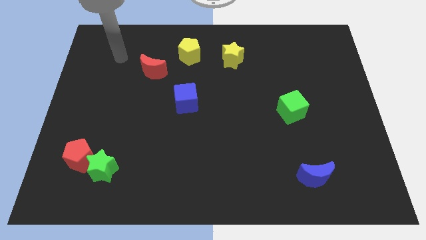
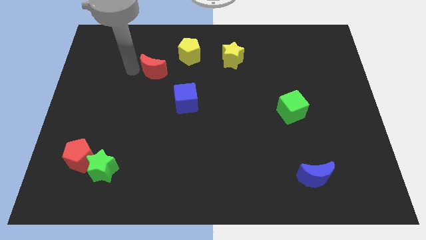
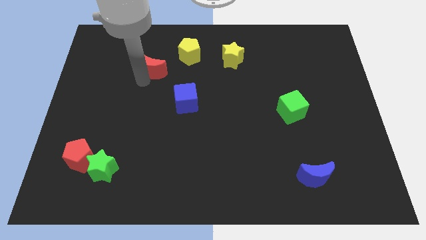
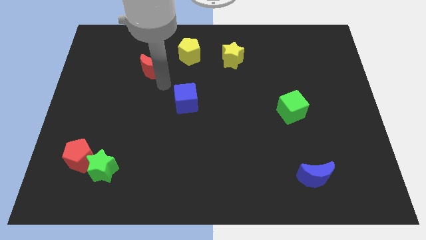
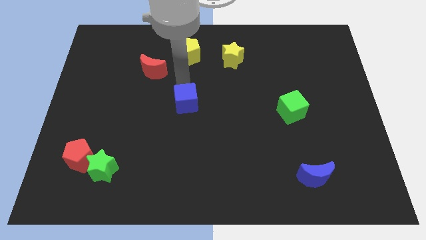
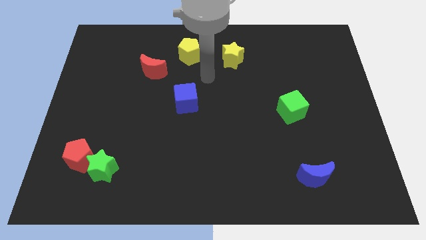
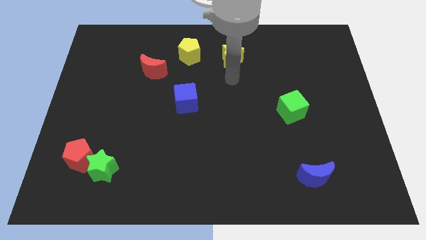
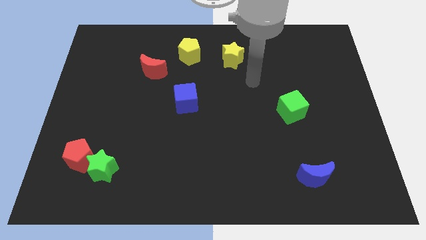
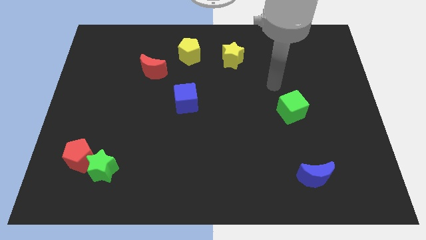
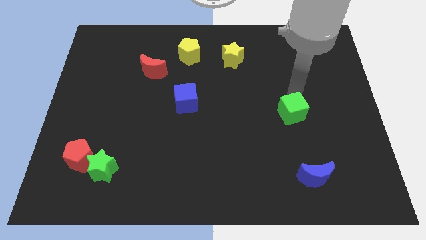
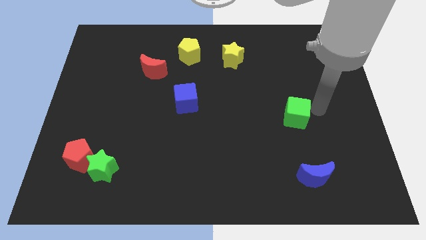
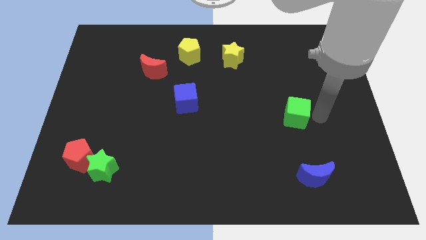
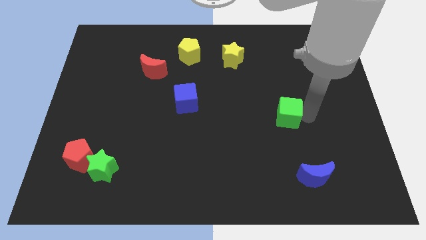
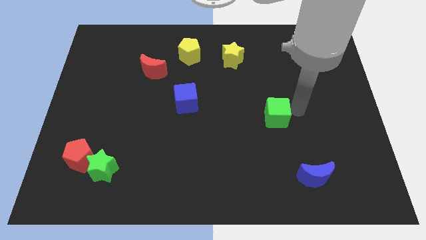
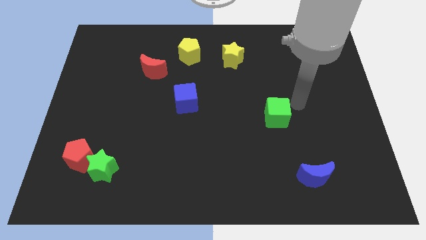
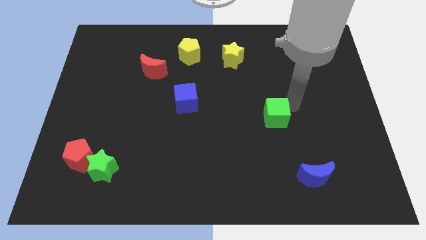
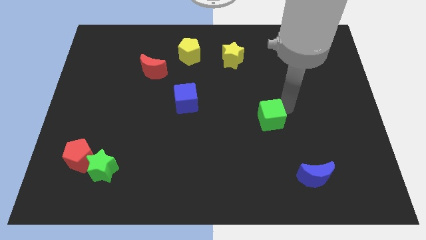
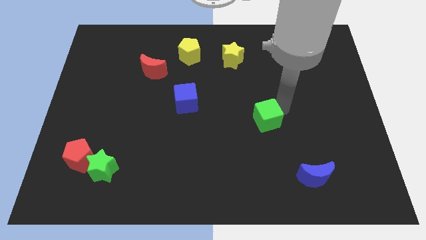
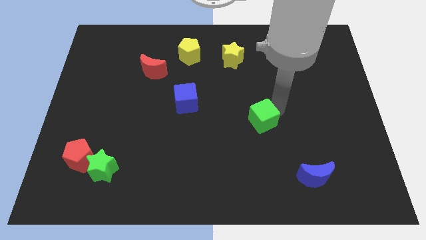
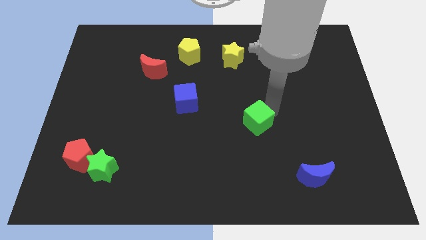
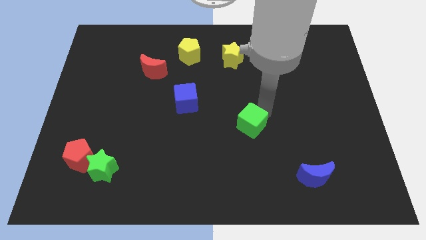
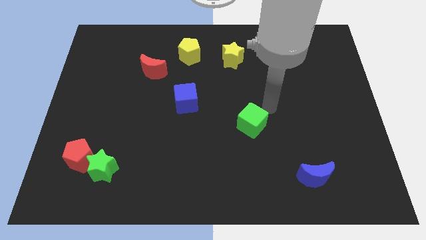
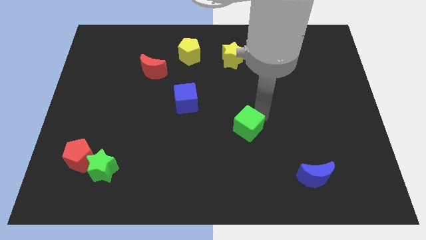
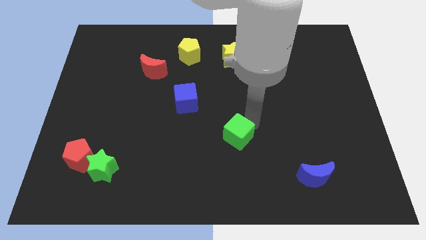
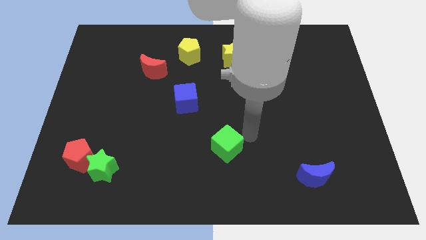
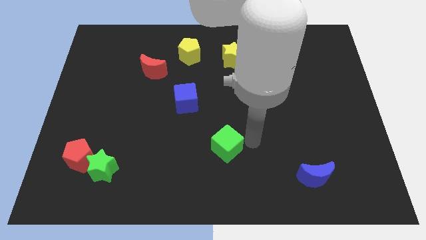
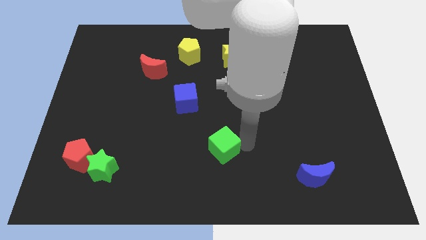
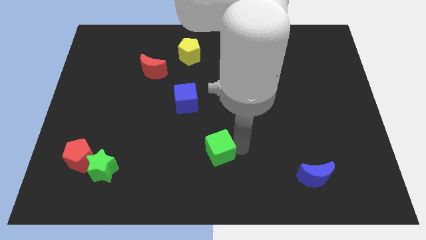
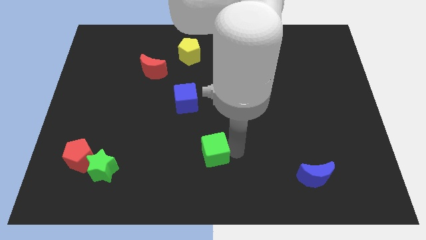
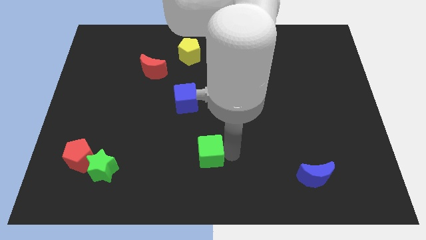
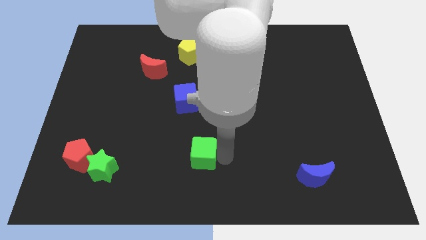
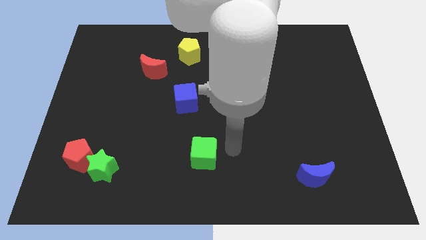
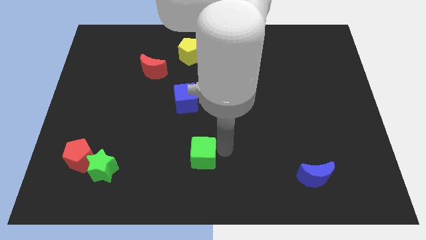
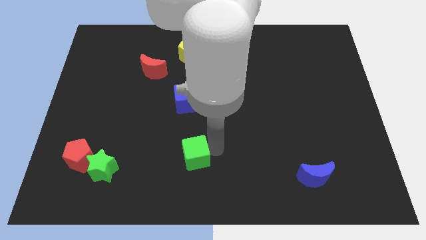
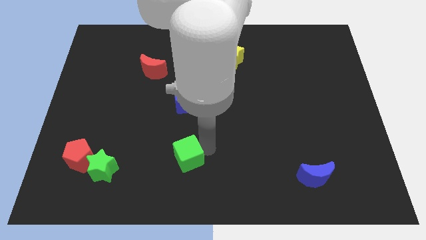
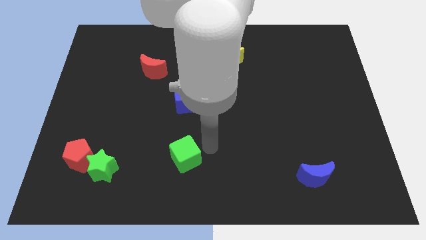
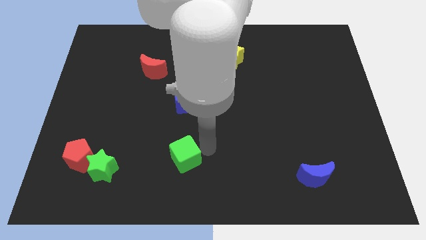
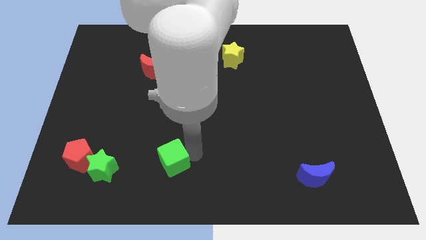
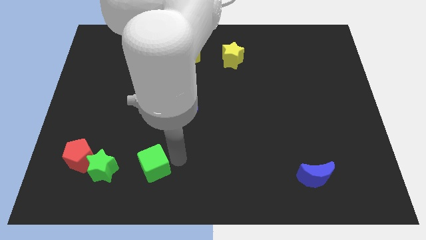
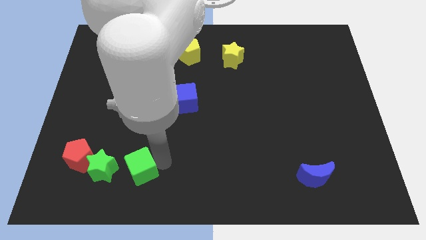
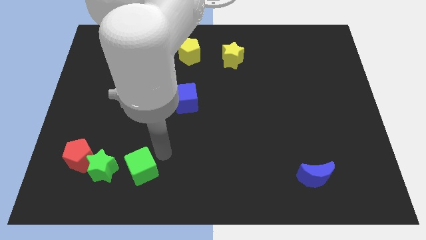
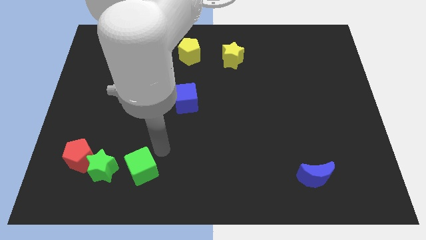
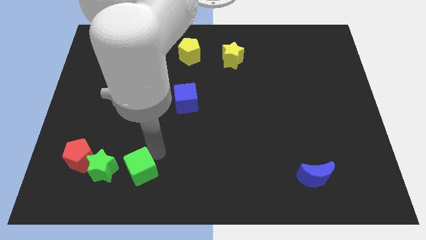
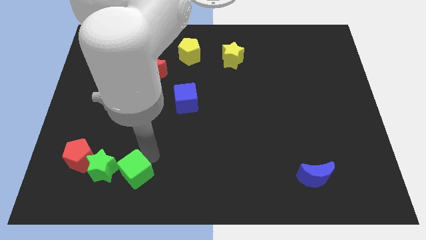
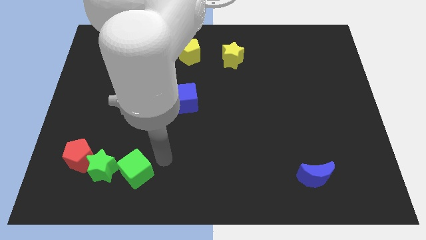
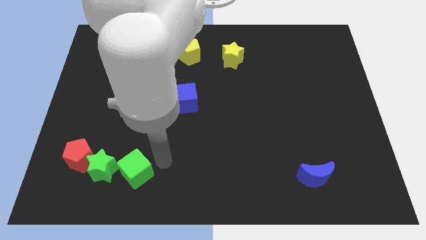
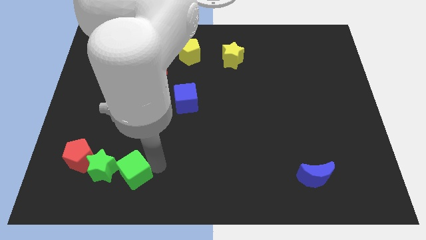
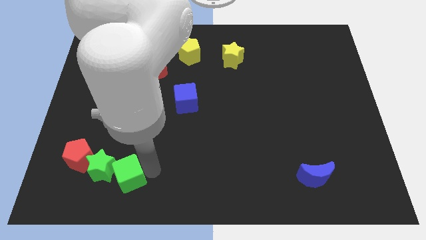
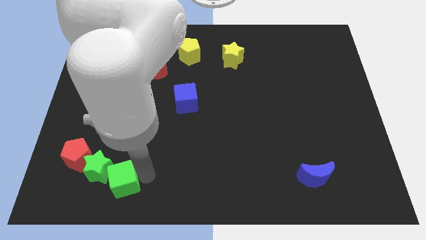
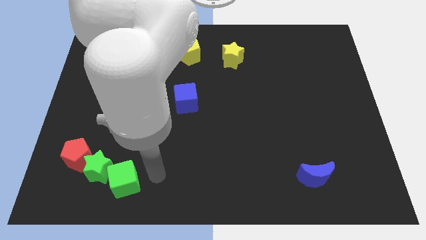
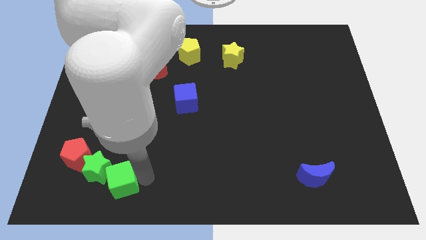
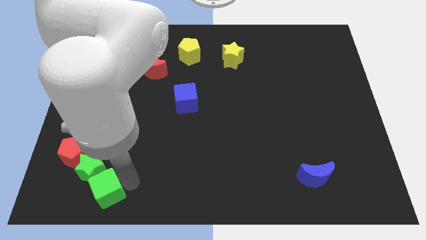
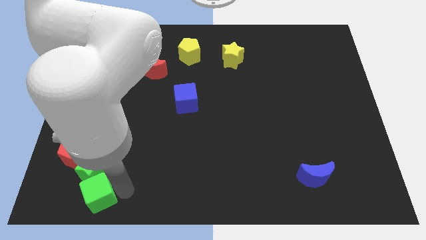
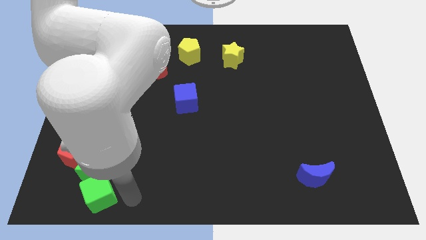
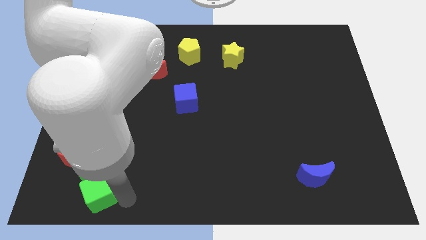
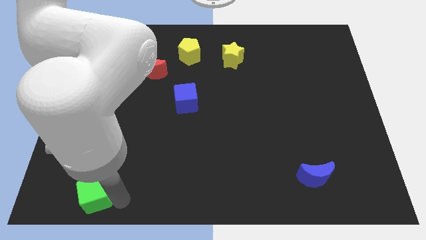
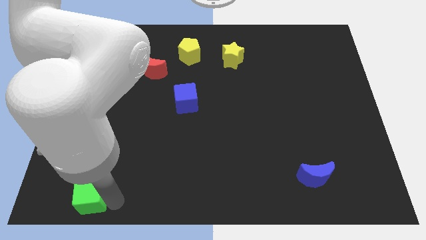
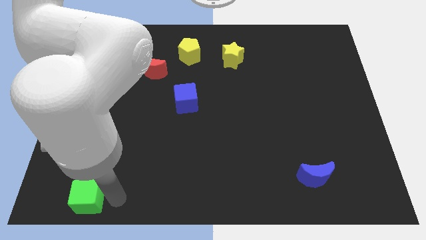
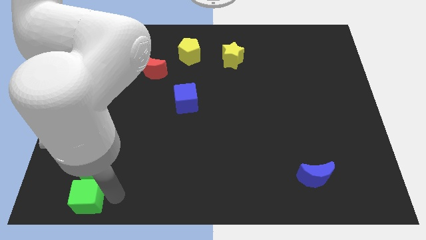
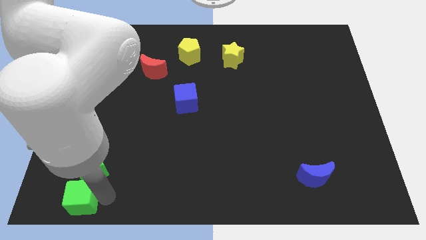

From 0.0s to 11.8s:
slide the green cube to the lower left corner
